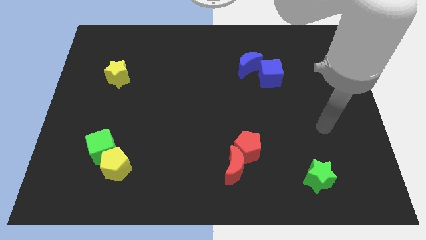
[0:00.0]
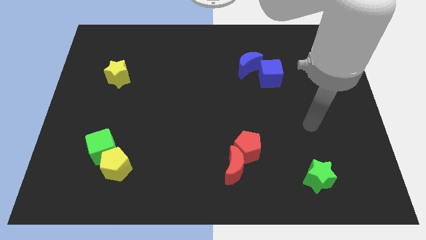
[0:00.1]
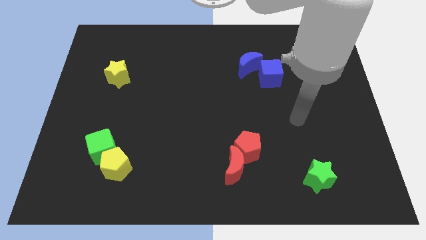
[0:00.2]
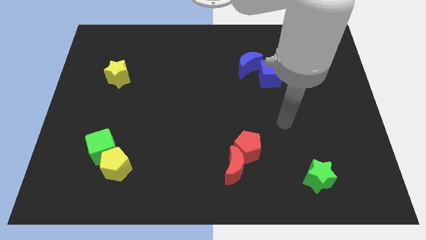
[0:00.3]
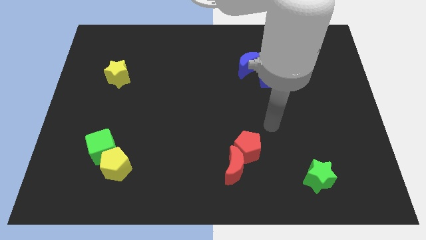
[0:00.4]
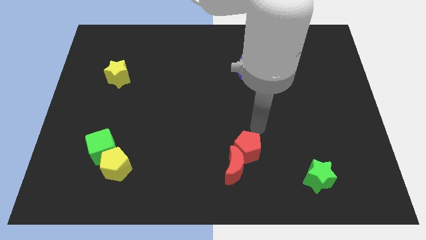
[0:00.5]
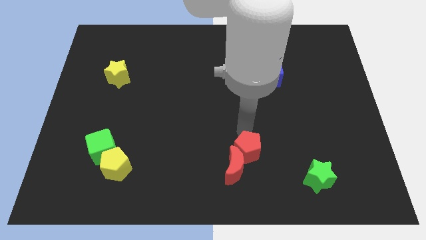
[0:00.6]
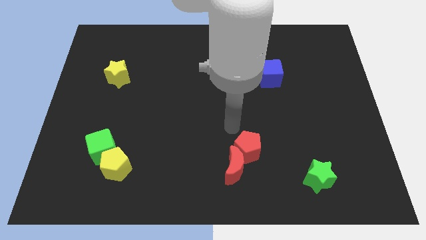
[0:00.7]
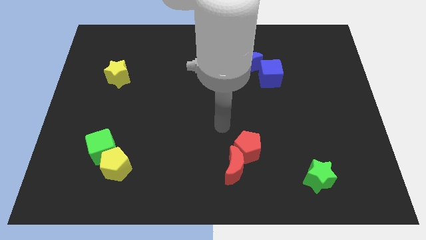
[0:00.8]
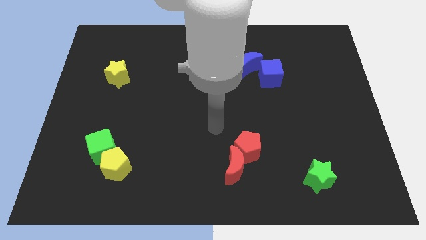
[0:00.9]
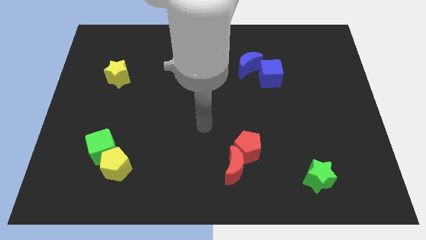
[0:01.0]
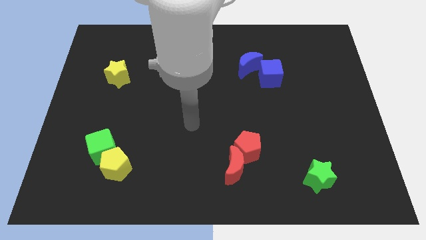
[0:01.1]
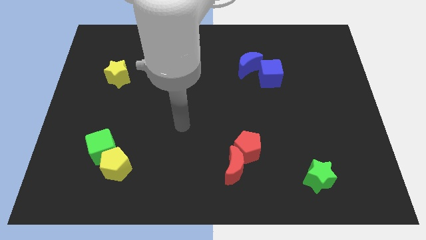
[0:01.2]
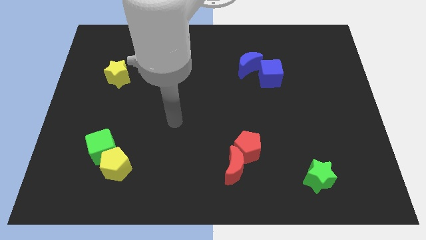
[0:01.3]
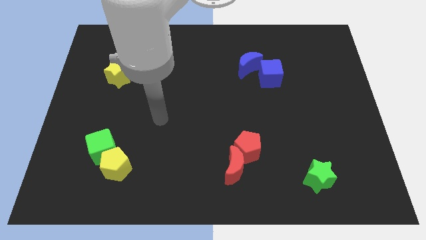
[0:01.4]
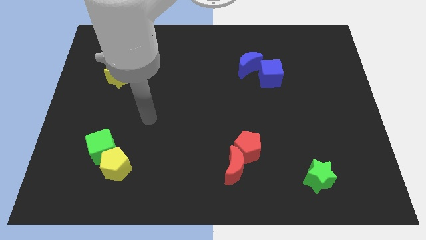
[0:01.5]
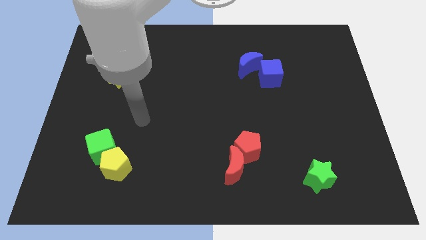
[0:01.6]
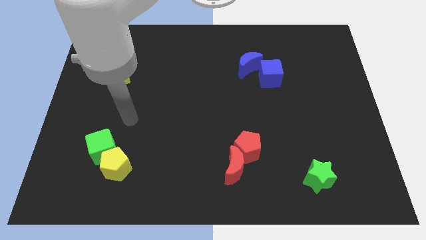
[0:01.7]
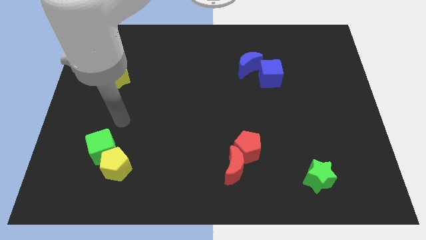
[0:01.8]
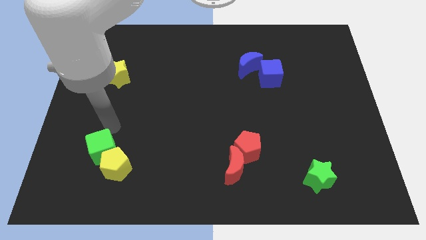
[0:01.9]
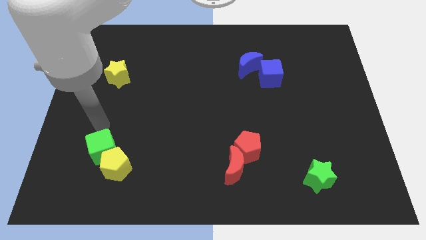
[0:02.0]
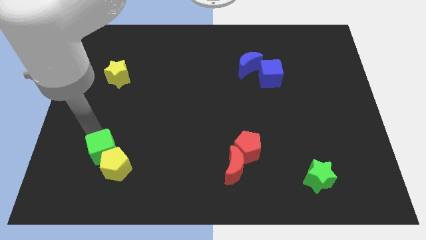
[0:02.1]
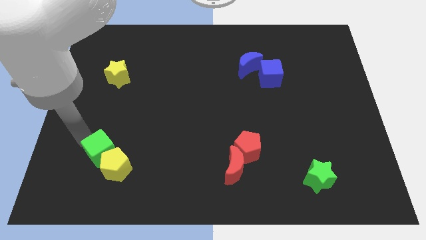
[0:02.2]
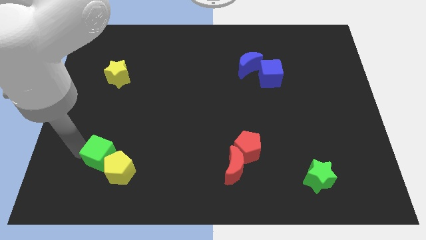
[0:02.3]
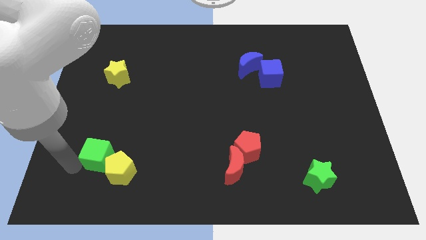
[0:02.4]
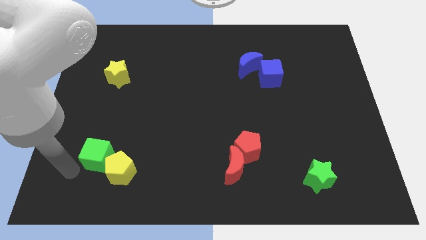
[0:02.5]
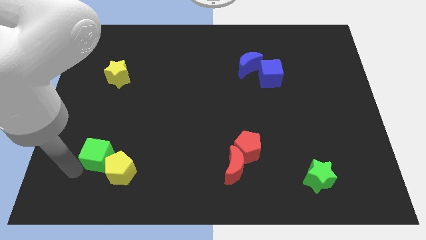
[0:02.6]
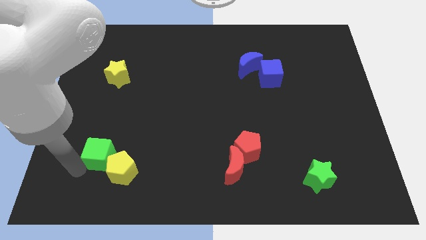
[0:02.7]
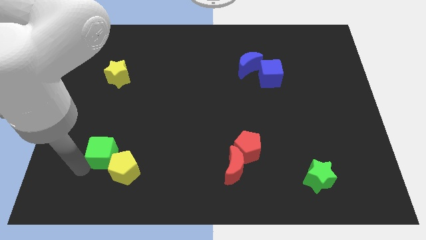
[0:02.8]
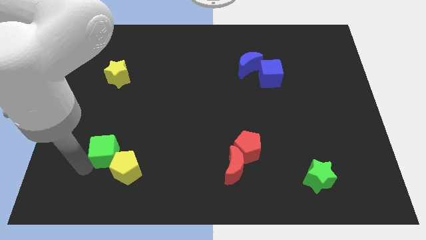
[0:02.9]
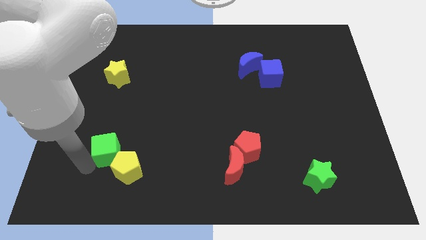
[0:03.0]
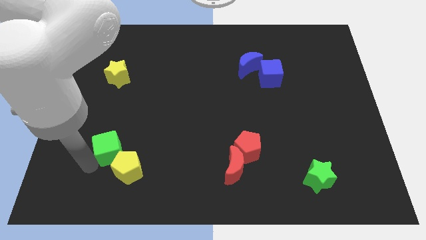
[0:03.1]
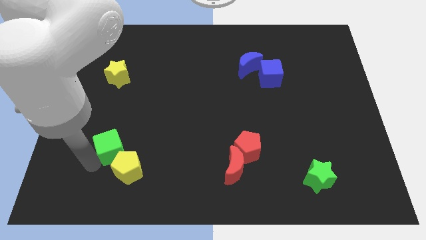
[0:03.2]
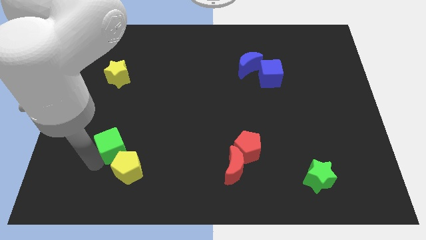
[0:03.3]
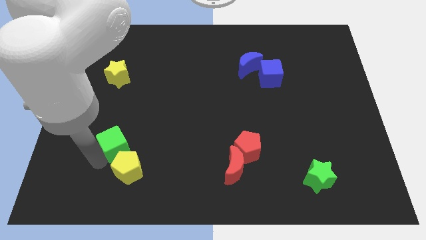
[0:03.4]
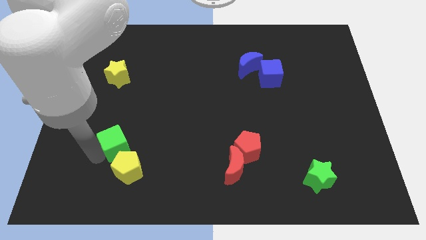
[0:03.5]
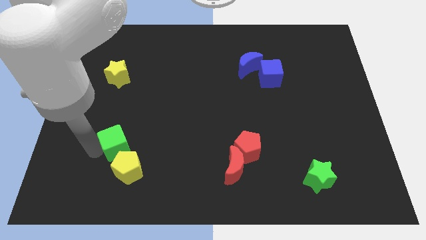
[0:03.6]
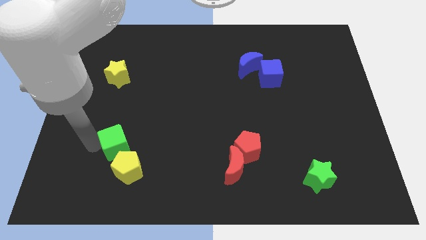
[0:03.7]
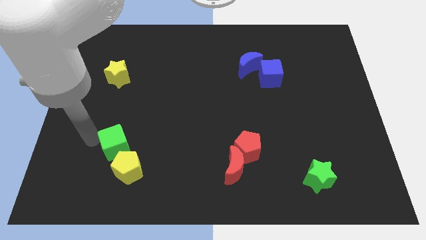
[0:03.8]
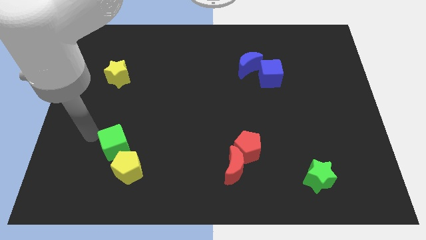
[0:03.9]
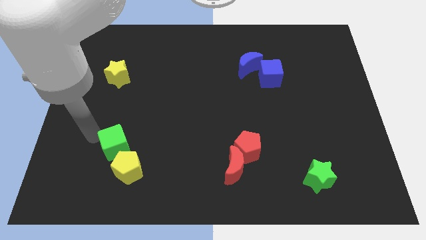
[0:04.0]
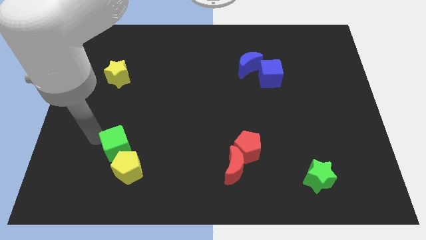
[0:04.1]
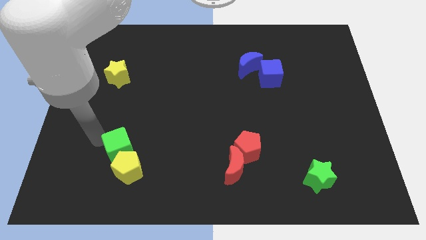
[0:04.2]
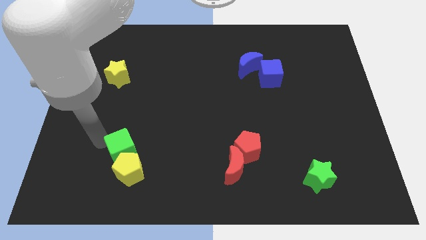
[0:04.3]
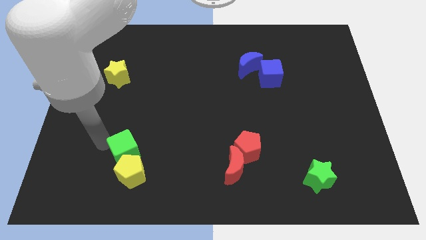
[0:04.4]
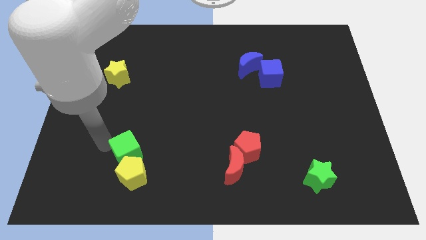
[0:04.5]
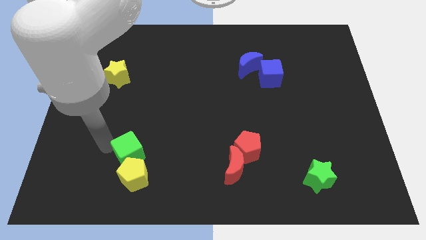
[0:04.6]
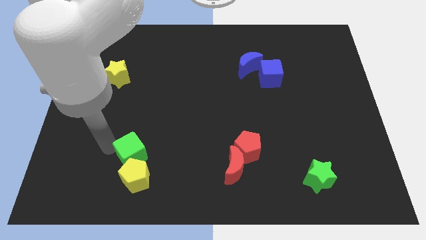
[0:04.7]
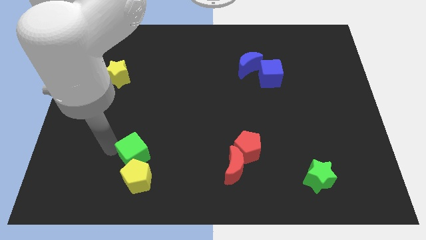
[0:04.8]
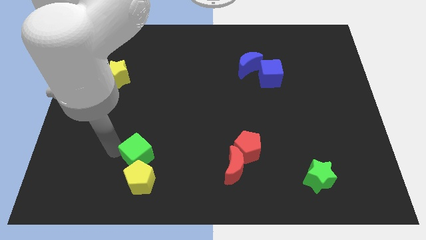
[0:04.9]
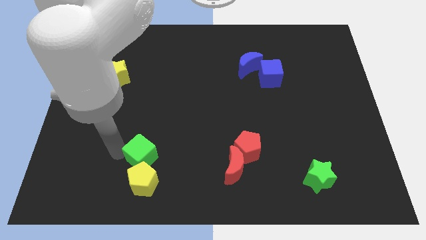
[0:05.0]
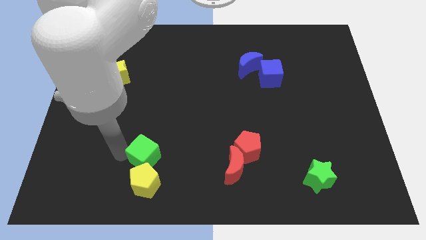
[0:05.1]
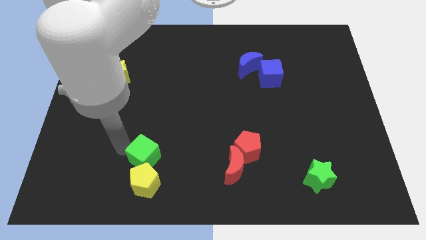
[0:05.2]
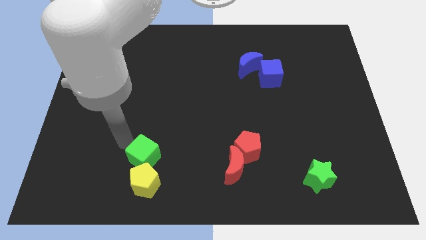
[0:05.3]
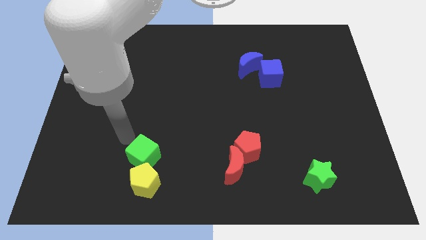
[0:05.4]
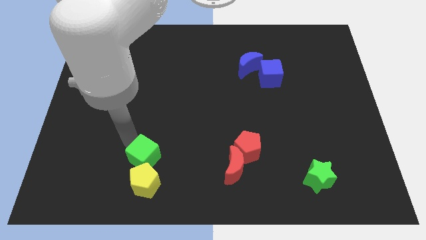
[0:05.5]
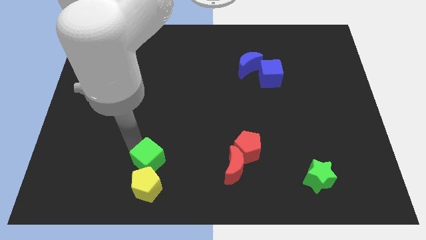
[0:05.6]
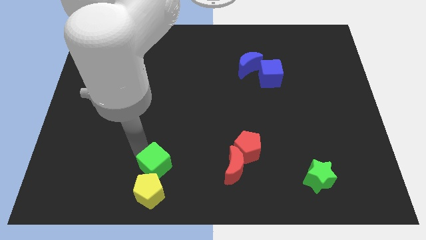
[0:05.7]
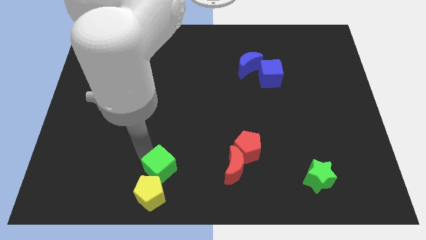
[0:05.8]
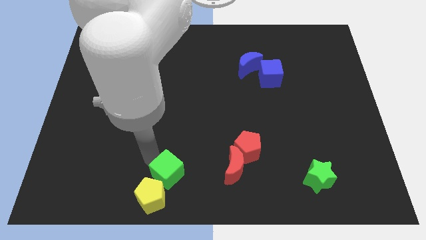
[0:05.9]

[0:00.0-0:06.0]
push the green cube to the bottom side

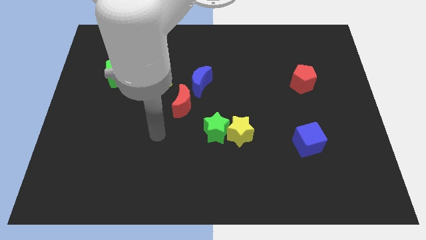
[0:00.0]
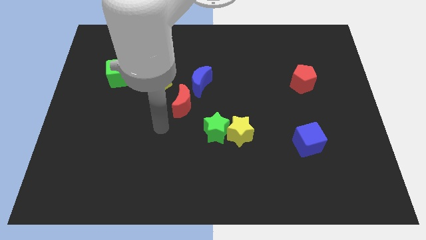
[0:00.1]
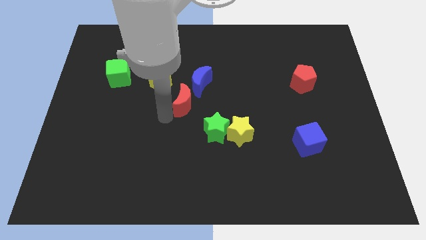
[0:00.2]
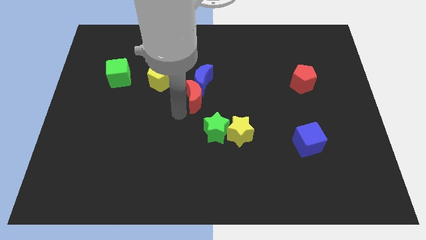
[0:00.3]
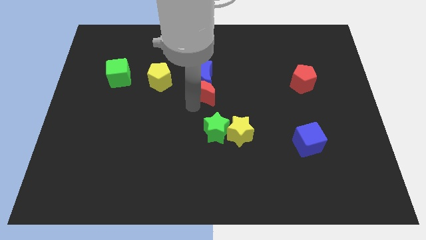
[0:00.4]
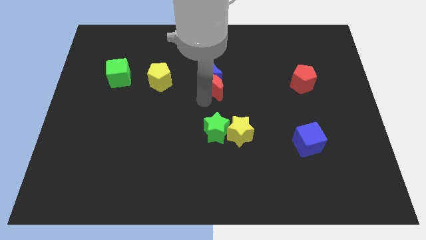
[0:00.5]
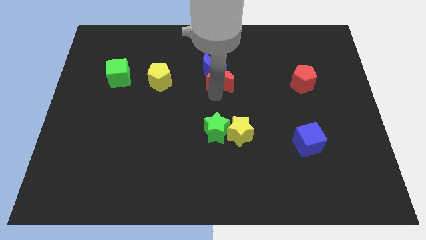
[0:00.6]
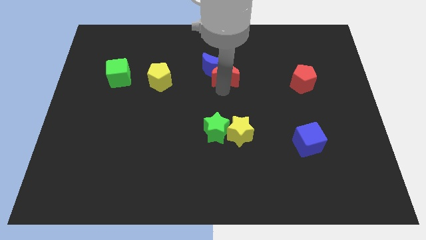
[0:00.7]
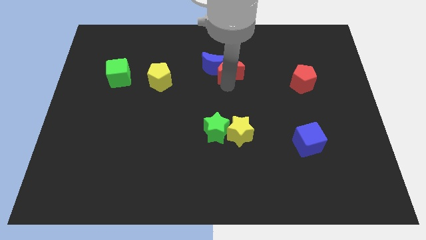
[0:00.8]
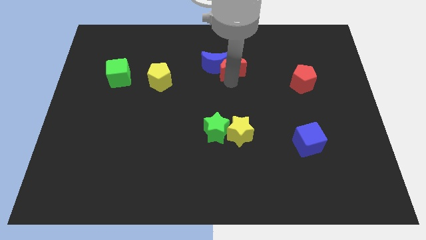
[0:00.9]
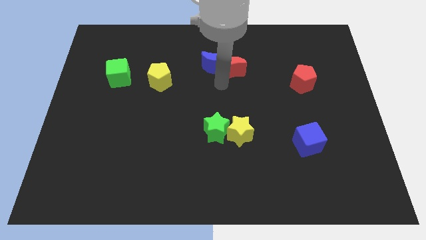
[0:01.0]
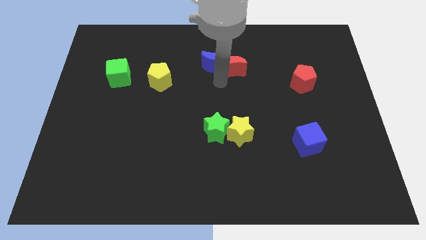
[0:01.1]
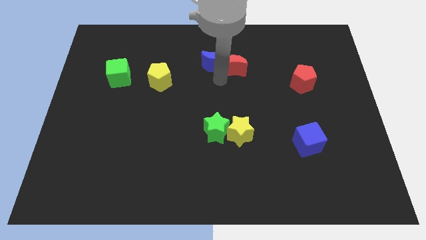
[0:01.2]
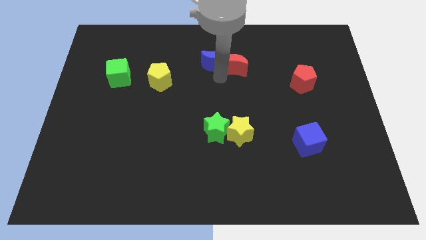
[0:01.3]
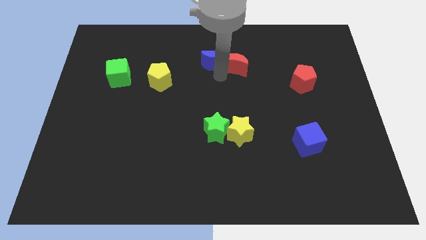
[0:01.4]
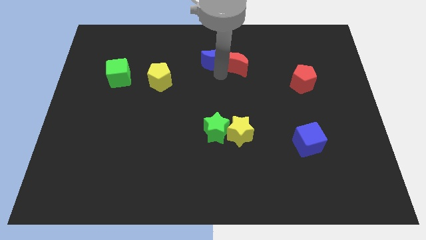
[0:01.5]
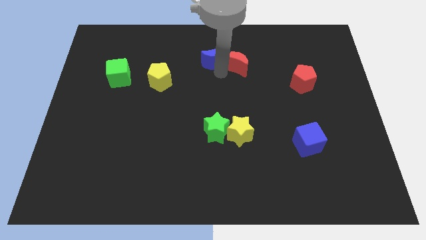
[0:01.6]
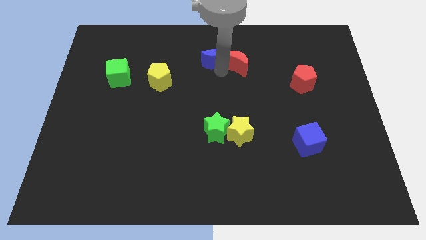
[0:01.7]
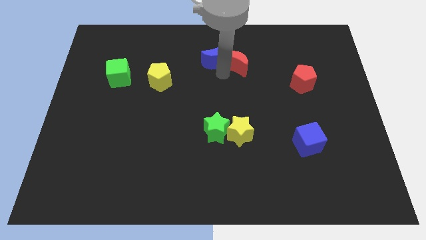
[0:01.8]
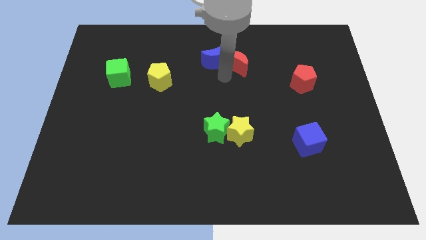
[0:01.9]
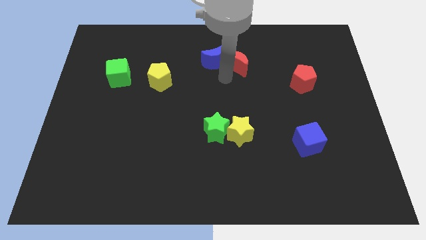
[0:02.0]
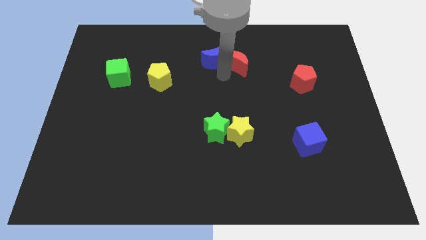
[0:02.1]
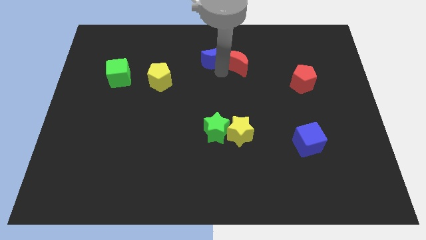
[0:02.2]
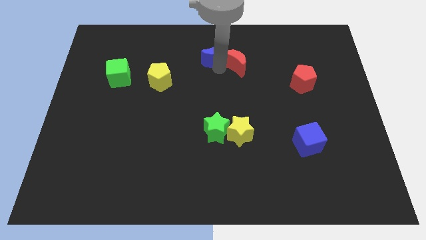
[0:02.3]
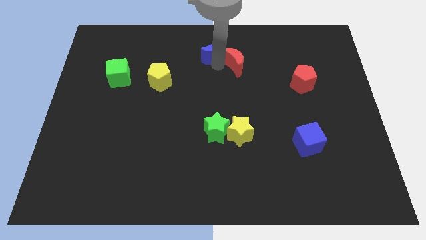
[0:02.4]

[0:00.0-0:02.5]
move the blue moon to the top side
